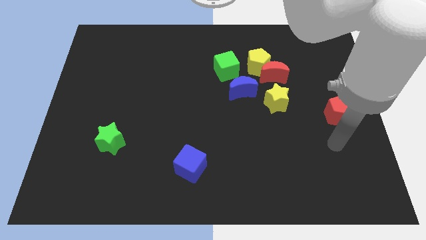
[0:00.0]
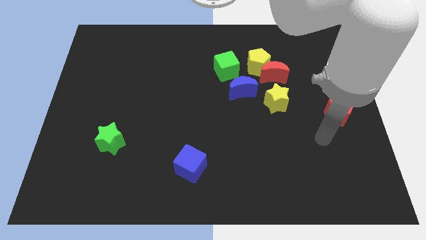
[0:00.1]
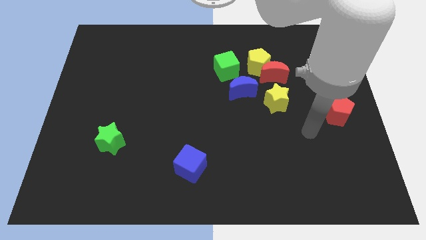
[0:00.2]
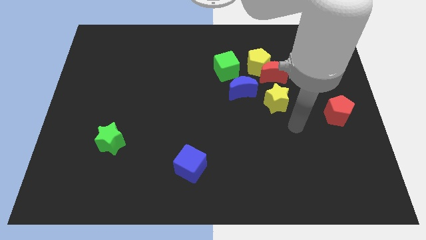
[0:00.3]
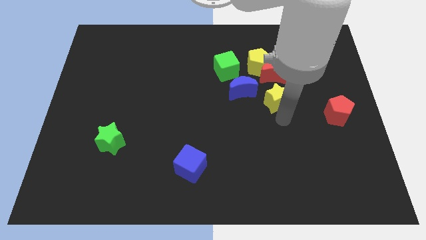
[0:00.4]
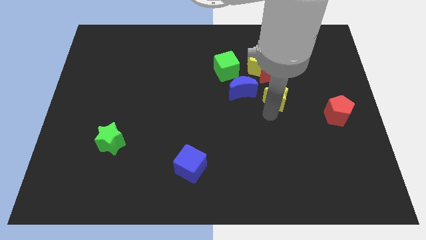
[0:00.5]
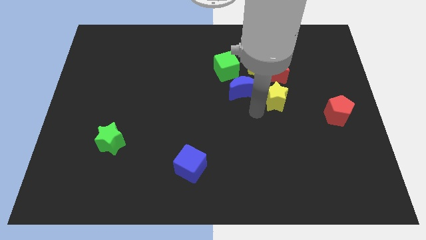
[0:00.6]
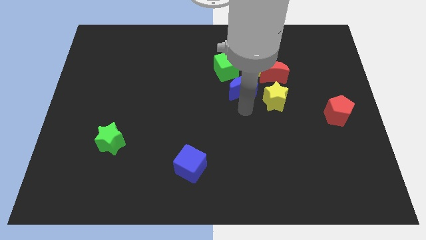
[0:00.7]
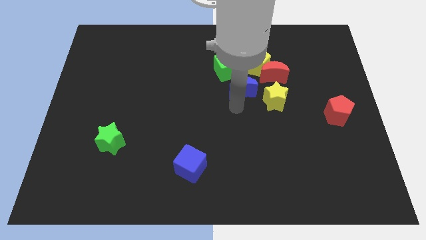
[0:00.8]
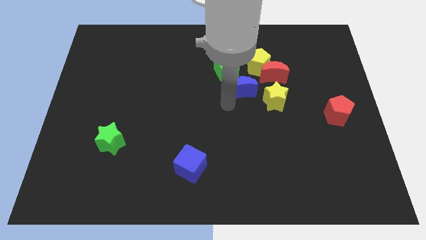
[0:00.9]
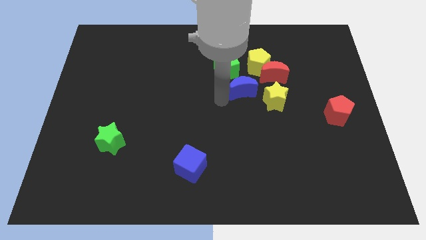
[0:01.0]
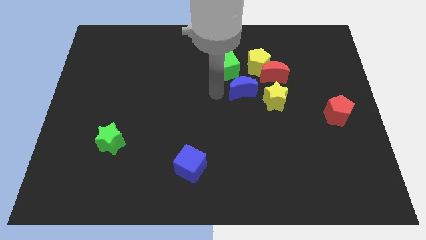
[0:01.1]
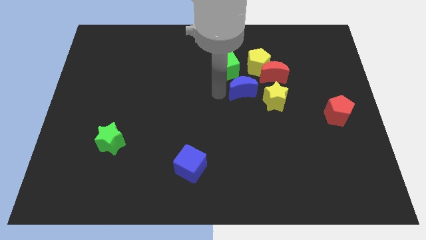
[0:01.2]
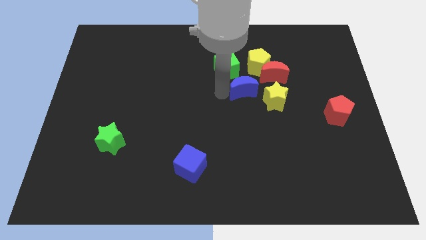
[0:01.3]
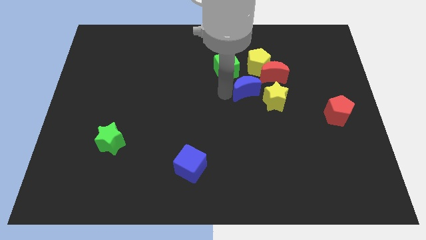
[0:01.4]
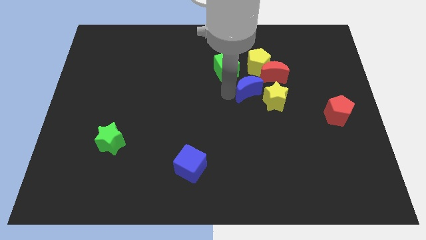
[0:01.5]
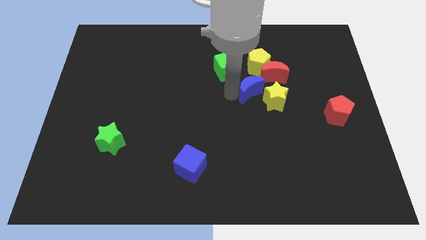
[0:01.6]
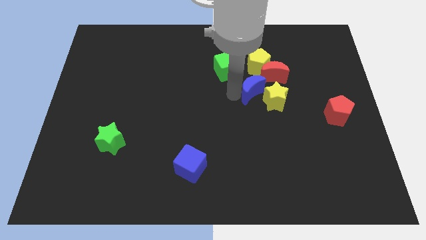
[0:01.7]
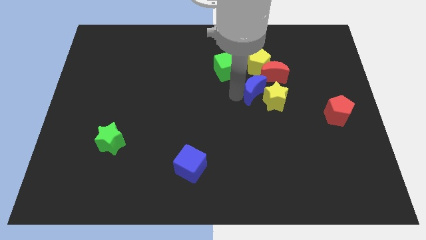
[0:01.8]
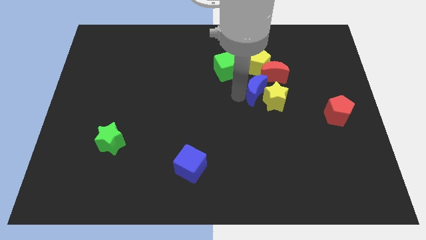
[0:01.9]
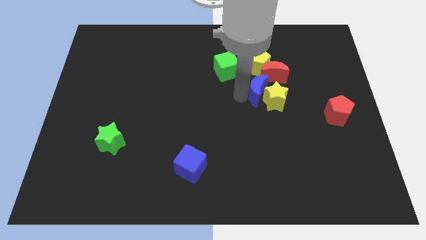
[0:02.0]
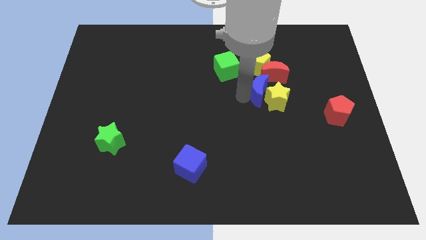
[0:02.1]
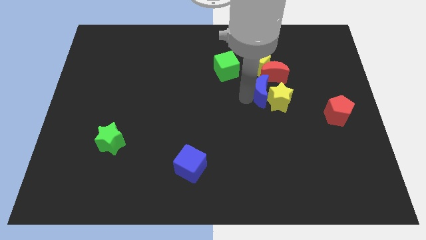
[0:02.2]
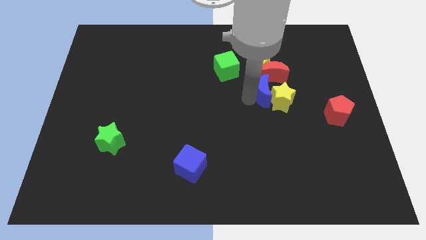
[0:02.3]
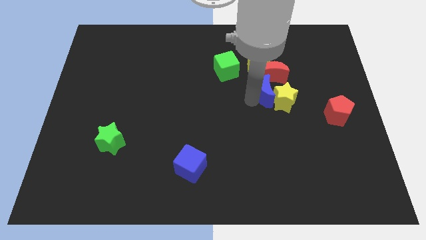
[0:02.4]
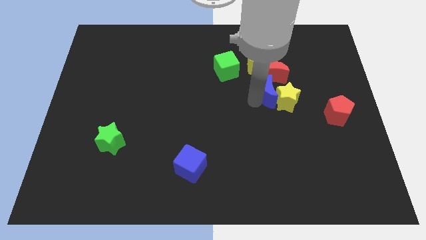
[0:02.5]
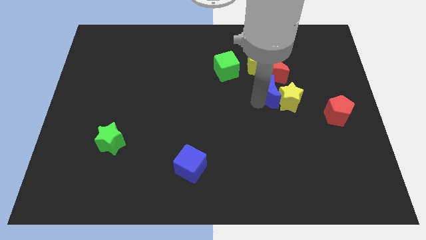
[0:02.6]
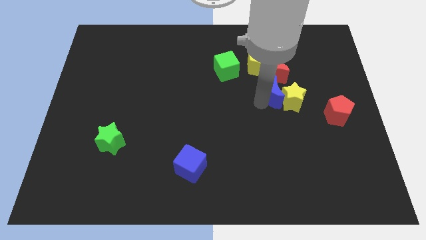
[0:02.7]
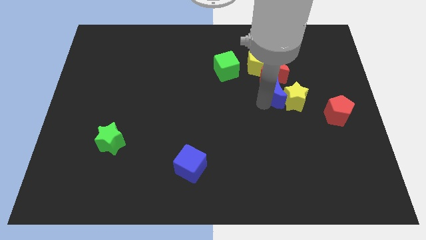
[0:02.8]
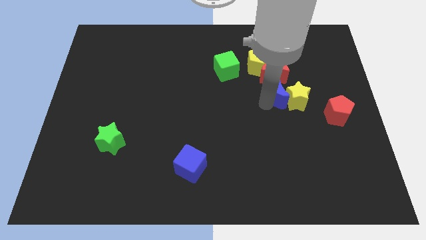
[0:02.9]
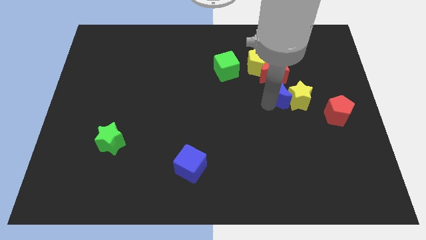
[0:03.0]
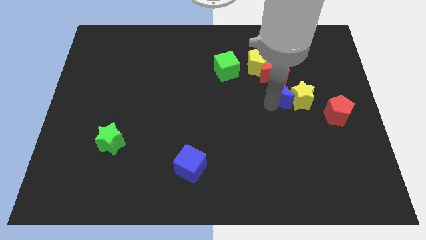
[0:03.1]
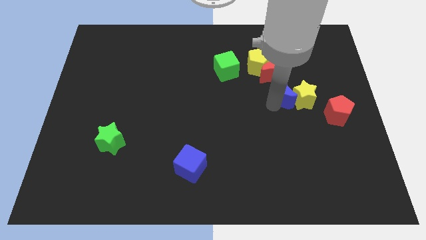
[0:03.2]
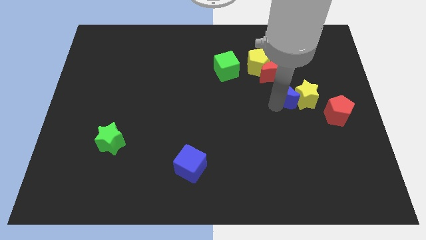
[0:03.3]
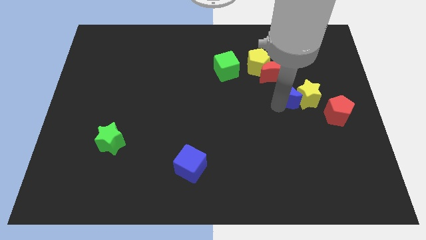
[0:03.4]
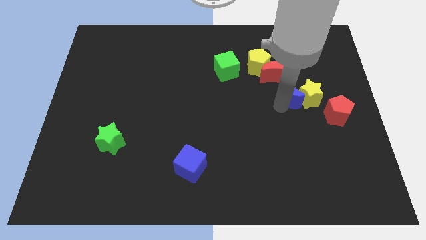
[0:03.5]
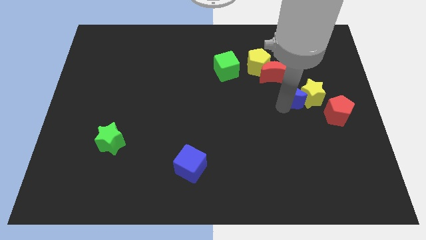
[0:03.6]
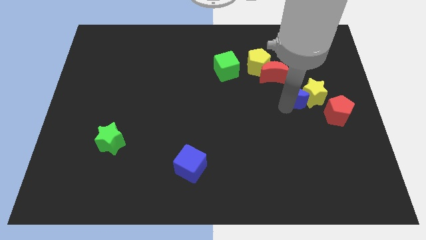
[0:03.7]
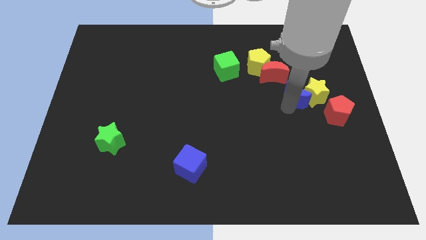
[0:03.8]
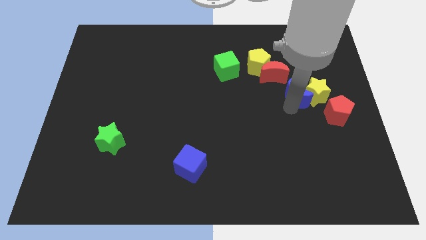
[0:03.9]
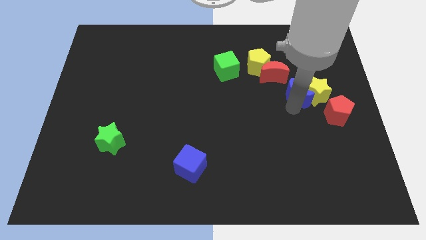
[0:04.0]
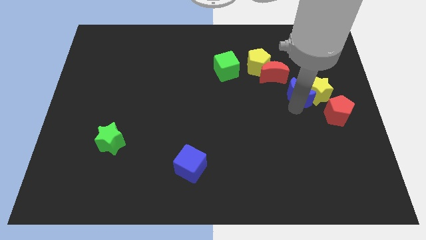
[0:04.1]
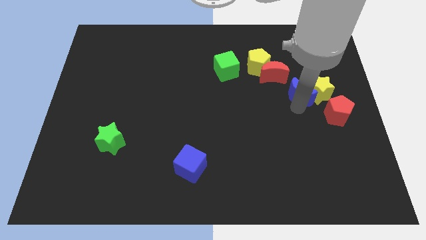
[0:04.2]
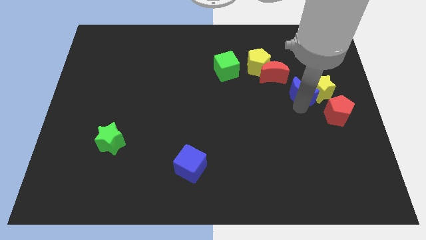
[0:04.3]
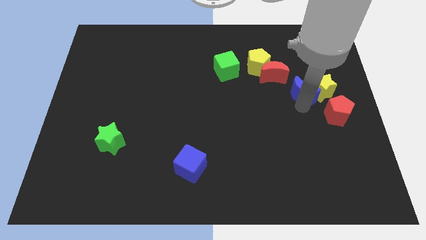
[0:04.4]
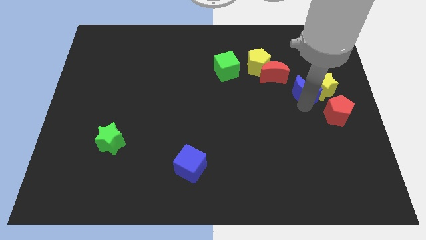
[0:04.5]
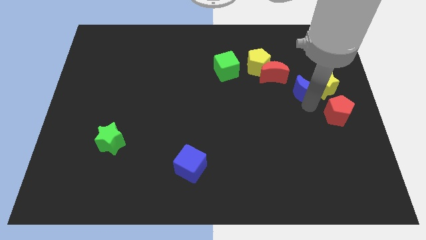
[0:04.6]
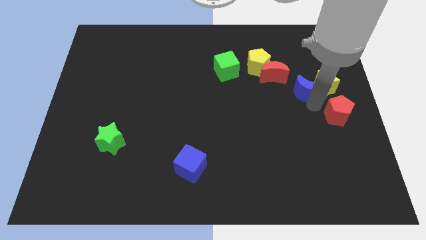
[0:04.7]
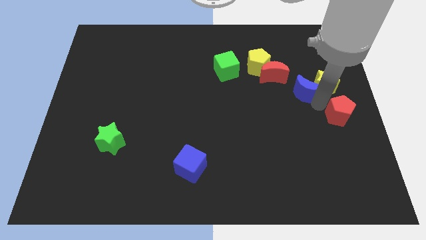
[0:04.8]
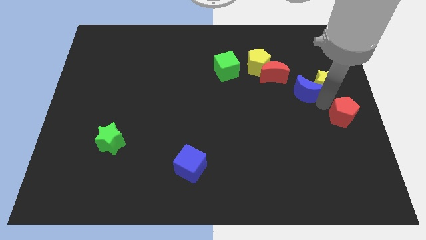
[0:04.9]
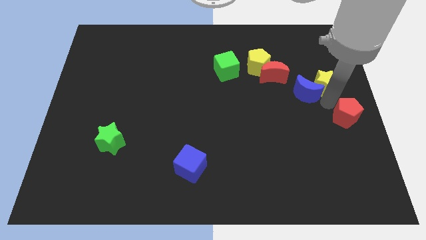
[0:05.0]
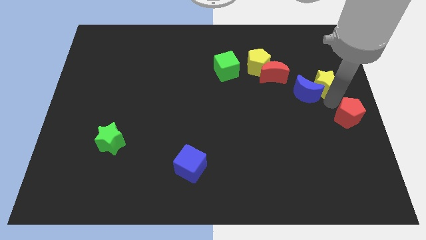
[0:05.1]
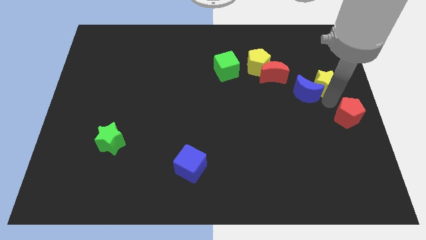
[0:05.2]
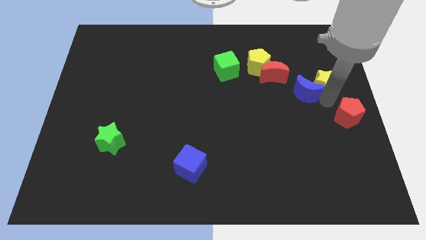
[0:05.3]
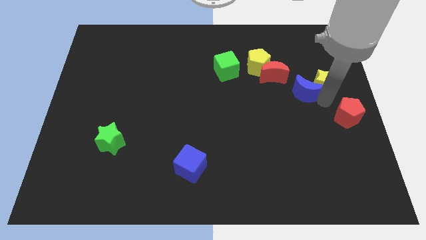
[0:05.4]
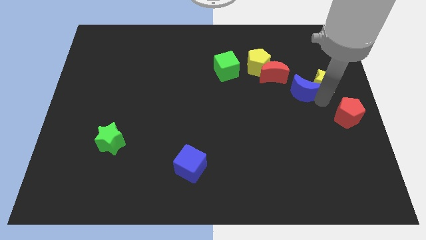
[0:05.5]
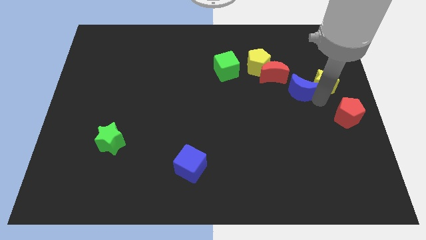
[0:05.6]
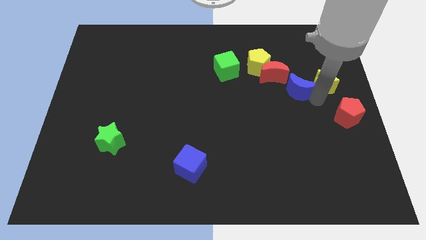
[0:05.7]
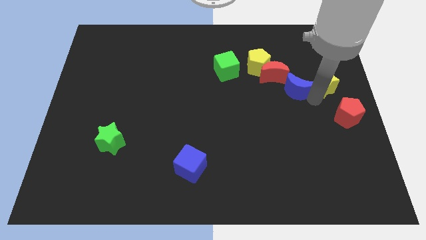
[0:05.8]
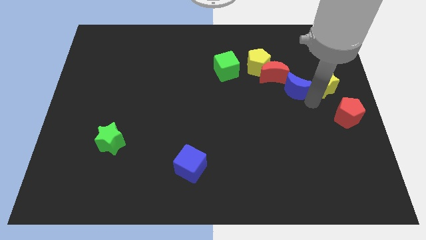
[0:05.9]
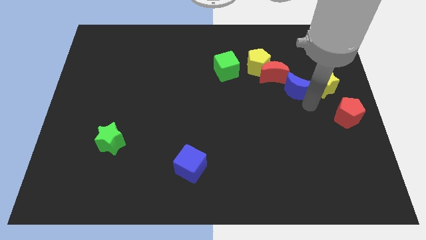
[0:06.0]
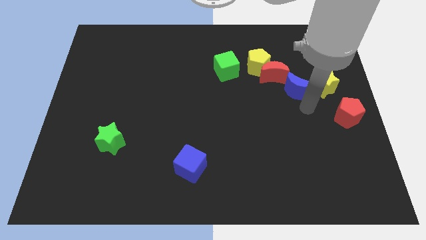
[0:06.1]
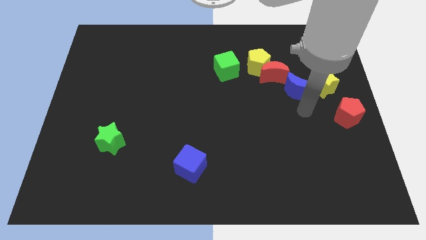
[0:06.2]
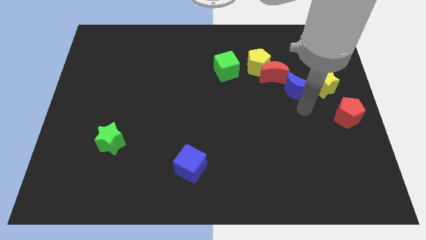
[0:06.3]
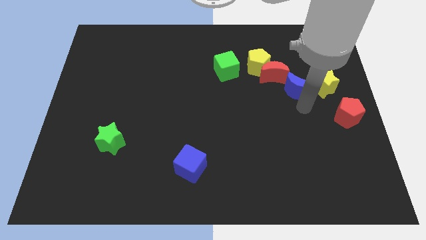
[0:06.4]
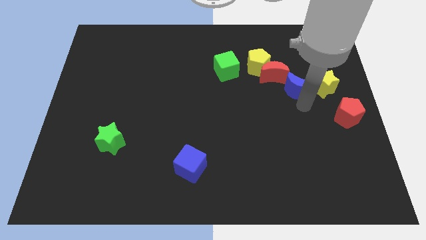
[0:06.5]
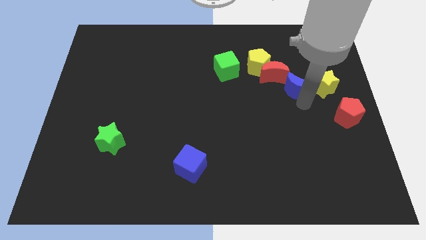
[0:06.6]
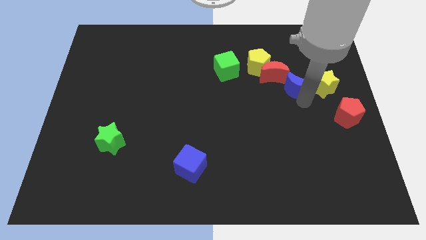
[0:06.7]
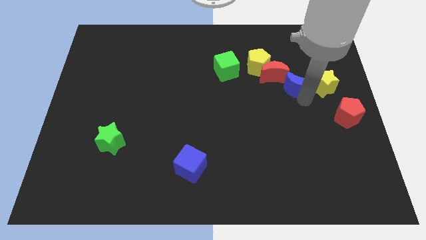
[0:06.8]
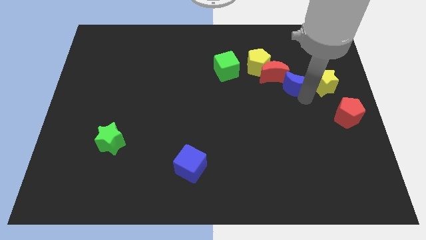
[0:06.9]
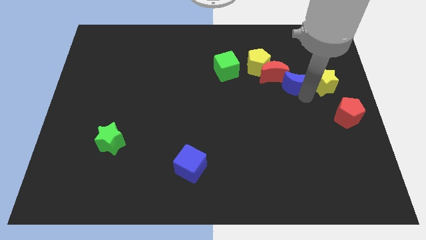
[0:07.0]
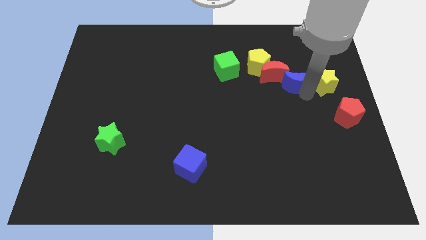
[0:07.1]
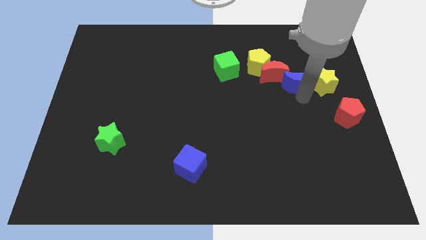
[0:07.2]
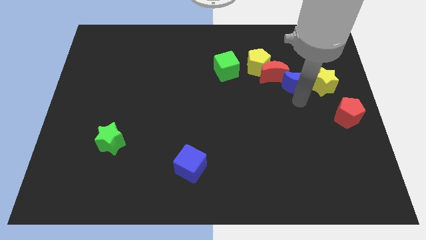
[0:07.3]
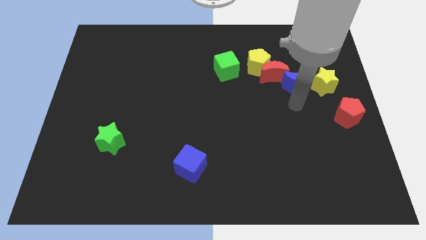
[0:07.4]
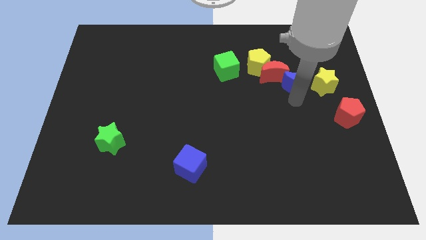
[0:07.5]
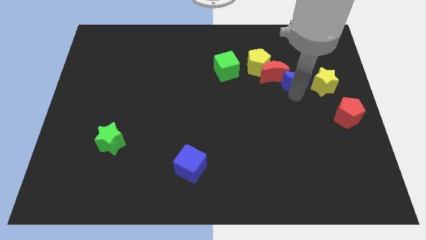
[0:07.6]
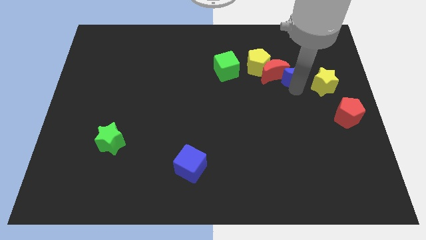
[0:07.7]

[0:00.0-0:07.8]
put the blue moon just right of the yellow pentagon

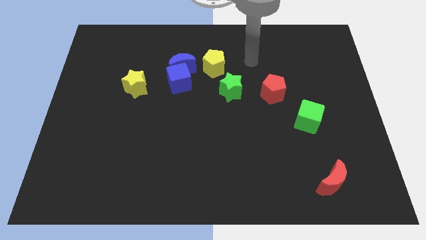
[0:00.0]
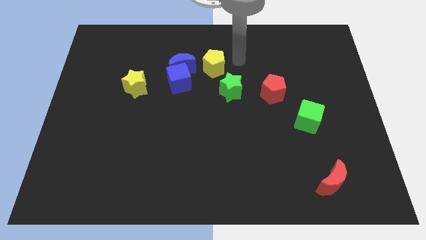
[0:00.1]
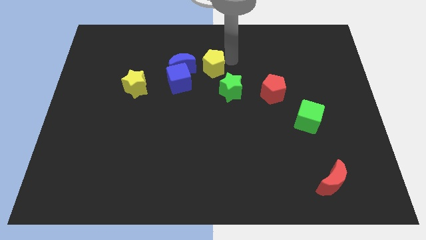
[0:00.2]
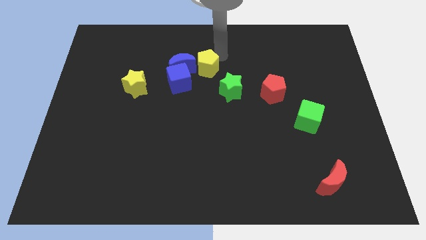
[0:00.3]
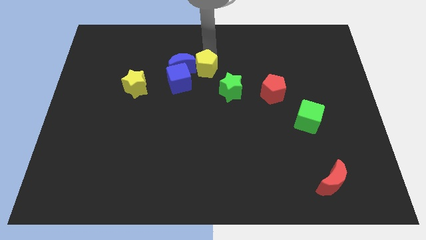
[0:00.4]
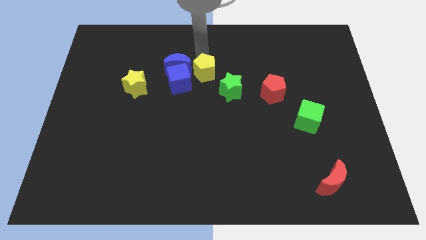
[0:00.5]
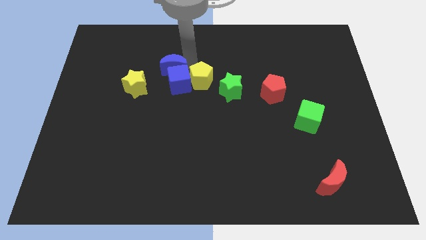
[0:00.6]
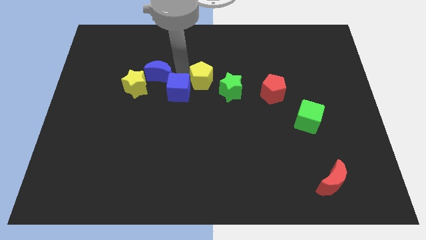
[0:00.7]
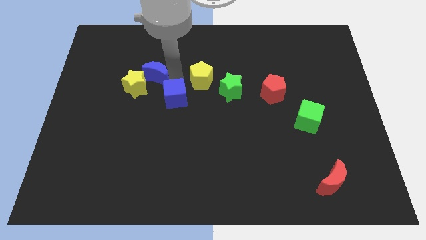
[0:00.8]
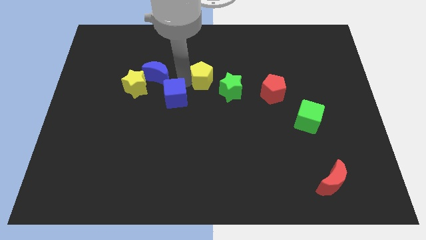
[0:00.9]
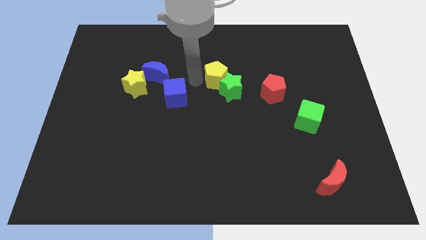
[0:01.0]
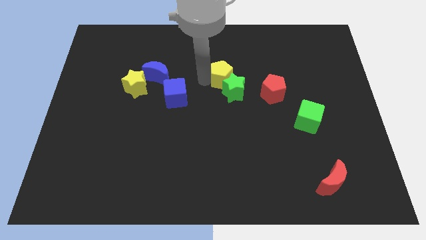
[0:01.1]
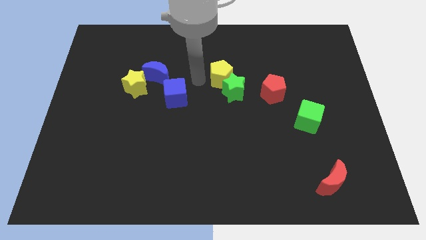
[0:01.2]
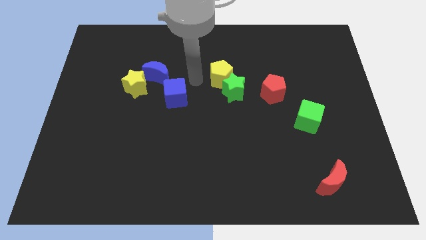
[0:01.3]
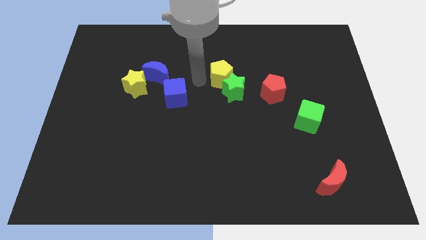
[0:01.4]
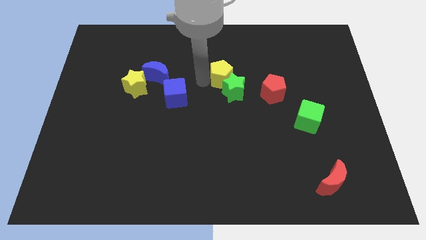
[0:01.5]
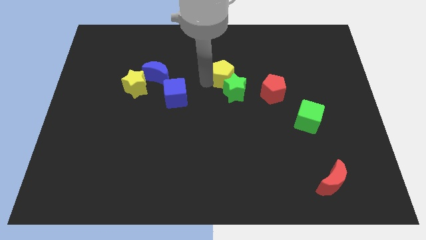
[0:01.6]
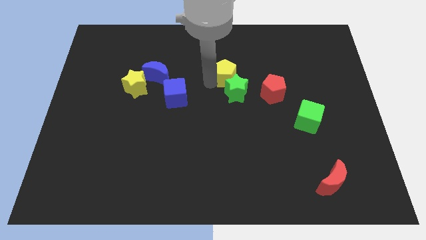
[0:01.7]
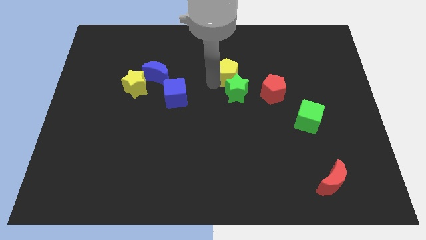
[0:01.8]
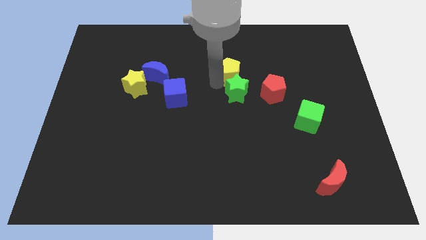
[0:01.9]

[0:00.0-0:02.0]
push the yellow pentagon to the top right side of the green star
